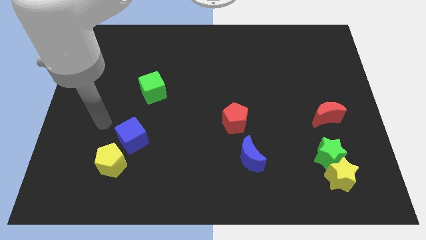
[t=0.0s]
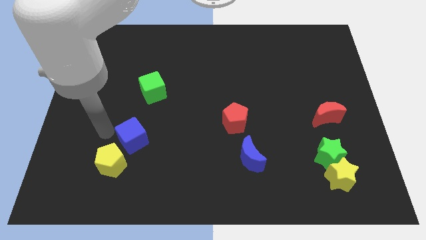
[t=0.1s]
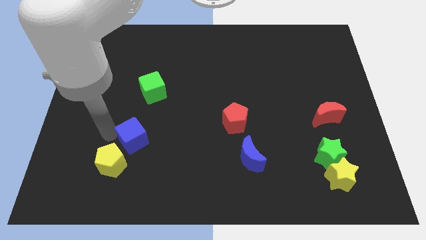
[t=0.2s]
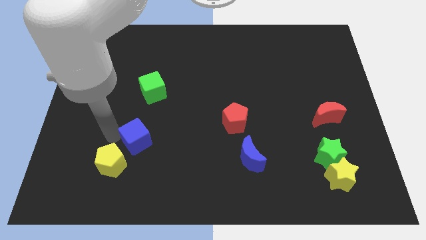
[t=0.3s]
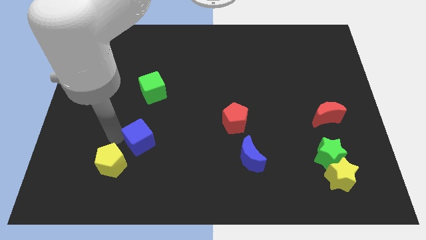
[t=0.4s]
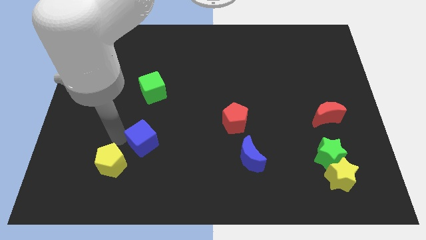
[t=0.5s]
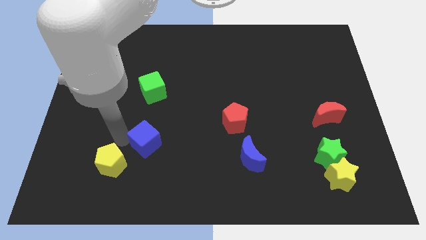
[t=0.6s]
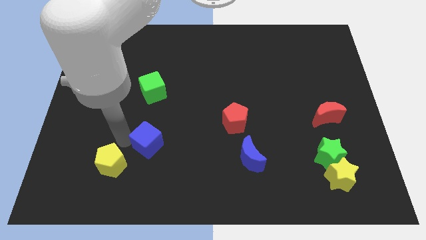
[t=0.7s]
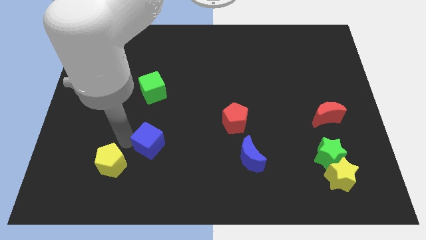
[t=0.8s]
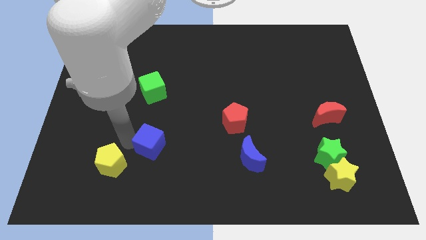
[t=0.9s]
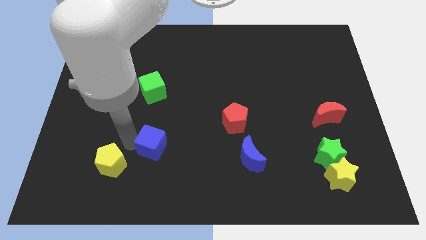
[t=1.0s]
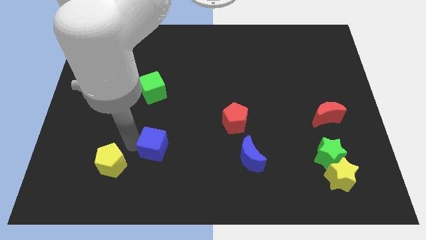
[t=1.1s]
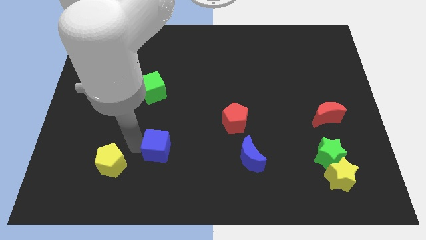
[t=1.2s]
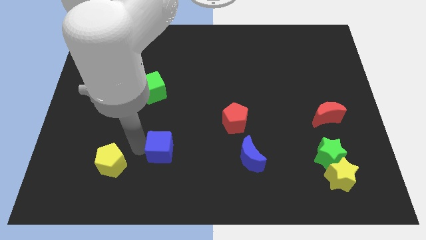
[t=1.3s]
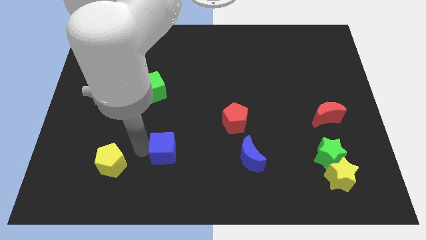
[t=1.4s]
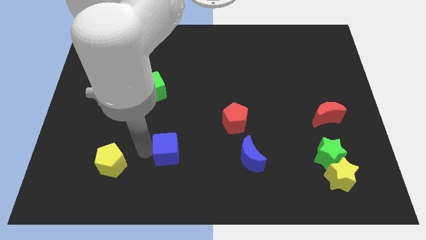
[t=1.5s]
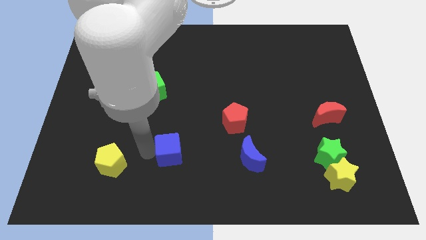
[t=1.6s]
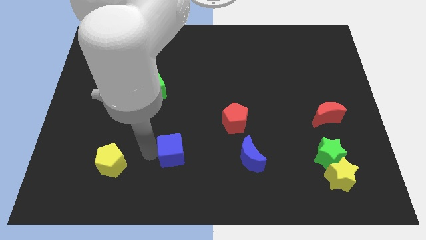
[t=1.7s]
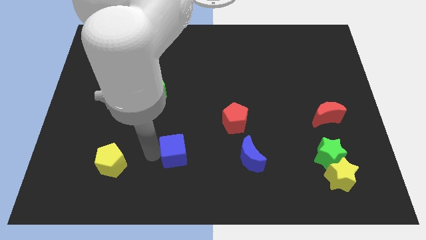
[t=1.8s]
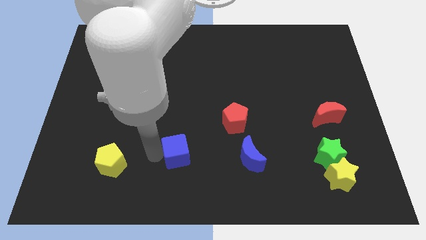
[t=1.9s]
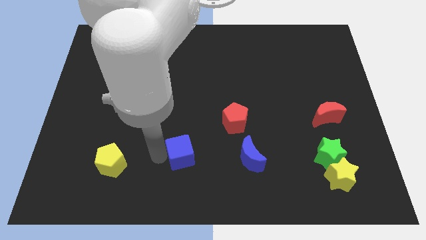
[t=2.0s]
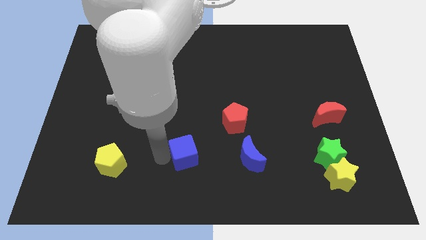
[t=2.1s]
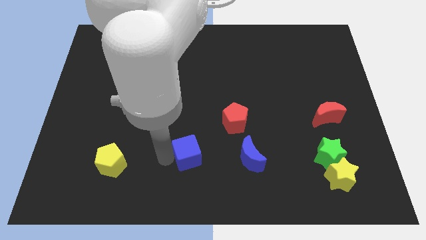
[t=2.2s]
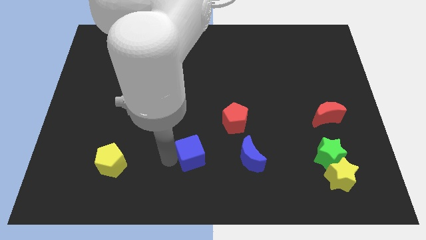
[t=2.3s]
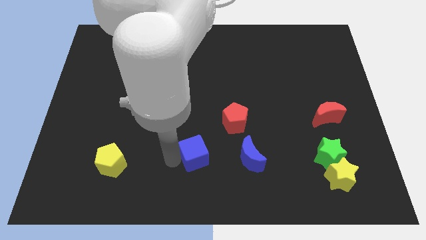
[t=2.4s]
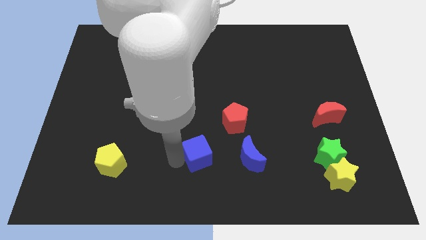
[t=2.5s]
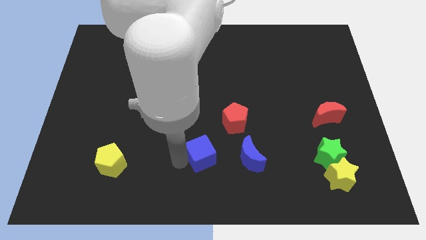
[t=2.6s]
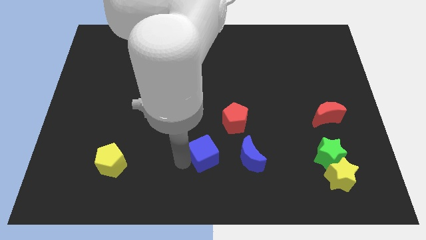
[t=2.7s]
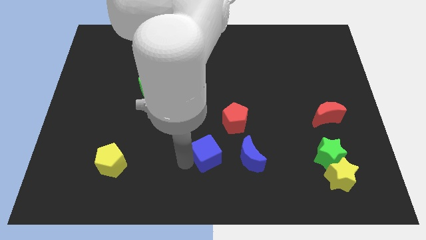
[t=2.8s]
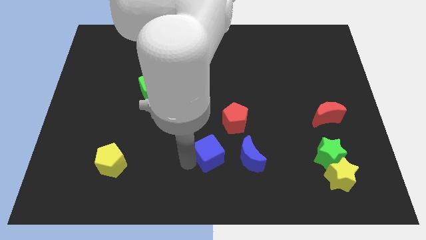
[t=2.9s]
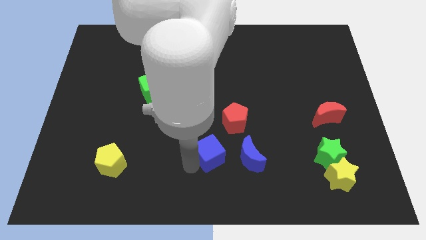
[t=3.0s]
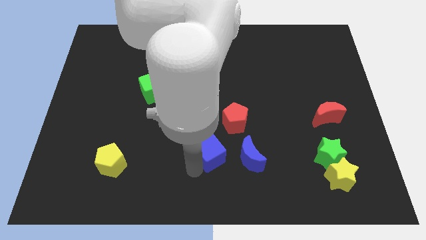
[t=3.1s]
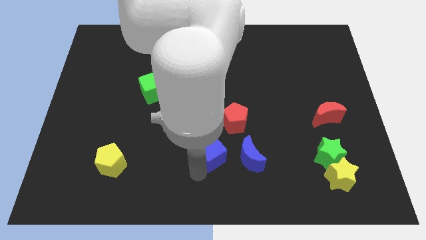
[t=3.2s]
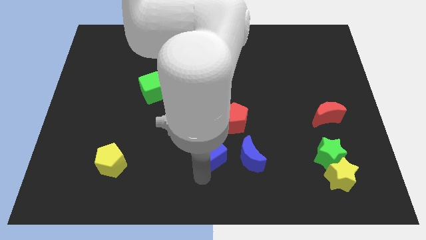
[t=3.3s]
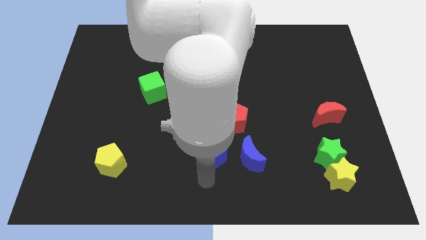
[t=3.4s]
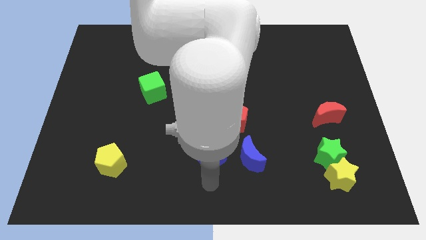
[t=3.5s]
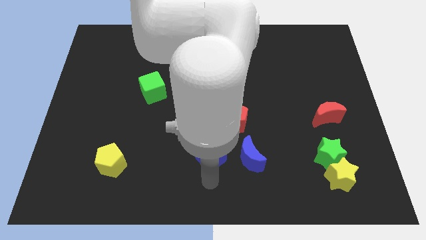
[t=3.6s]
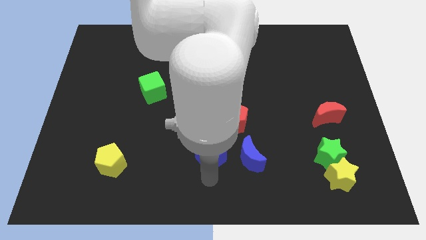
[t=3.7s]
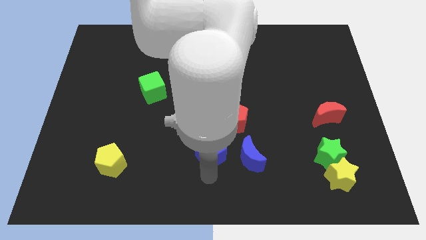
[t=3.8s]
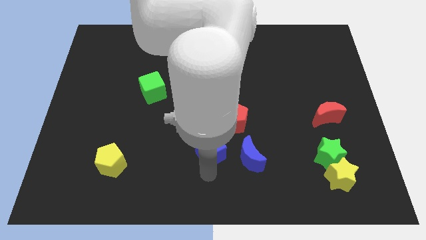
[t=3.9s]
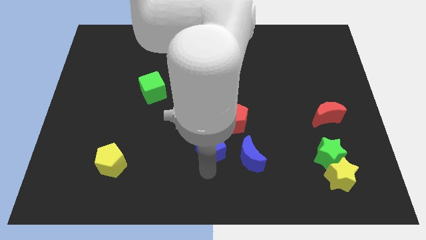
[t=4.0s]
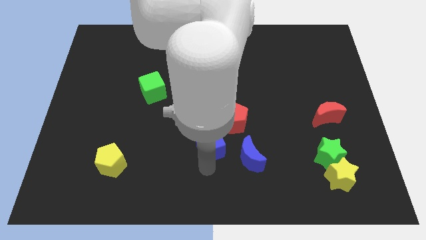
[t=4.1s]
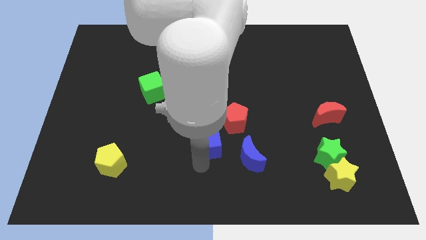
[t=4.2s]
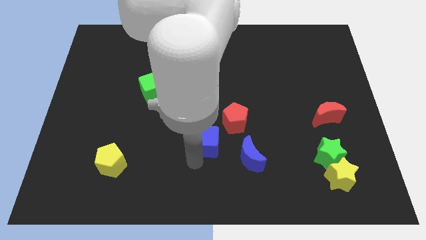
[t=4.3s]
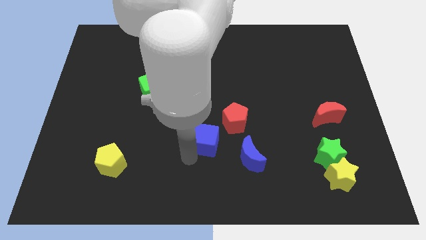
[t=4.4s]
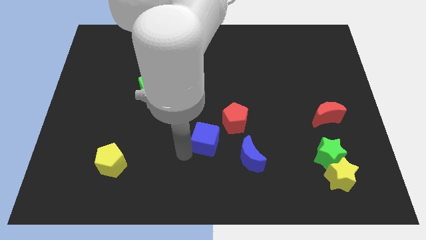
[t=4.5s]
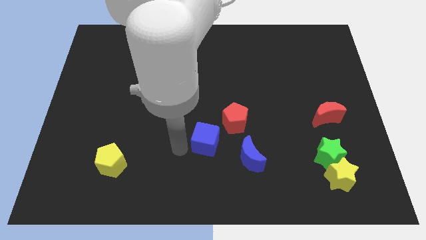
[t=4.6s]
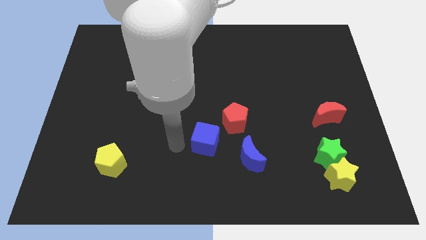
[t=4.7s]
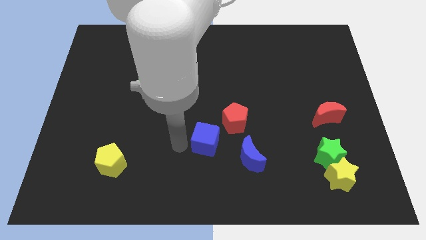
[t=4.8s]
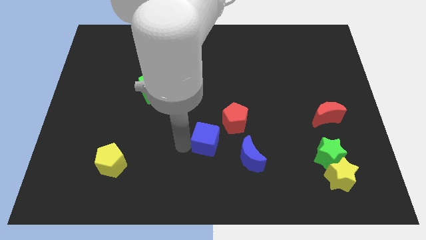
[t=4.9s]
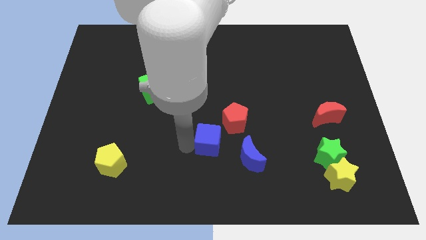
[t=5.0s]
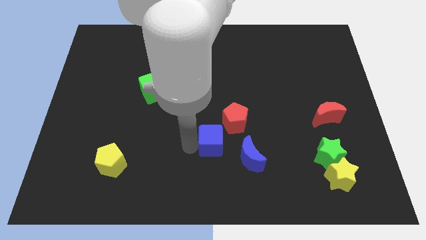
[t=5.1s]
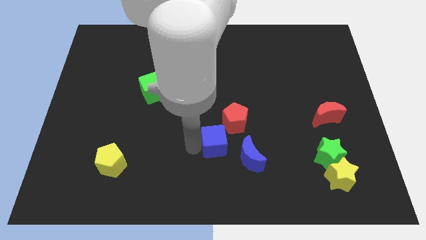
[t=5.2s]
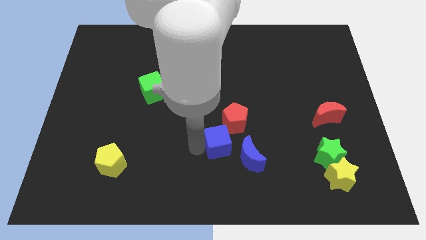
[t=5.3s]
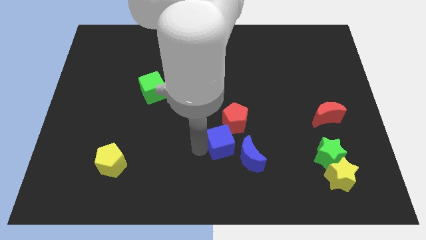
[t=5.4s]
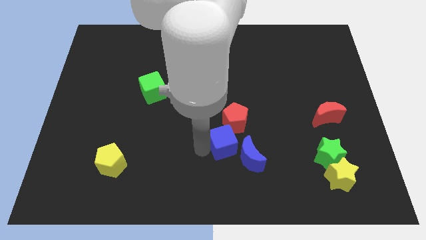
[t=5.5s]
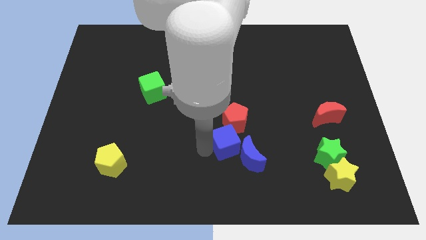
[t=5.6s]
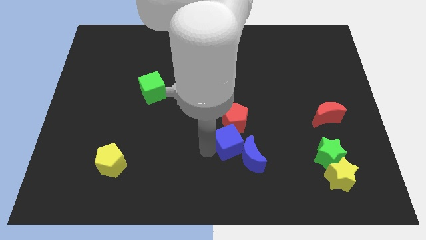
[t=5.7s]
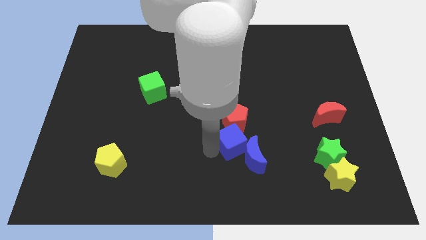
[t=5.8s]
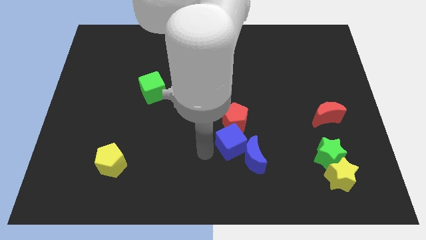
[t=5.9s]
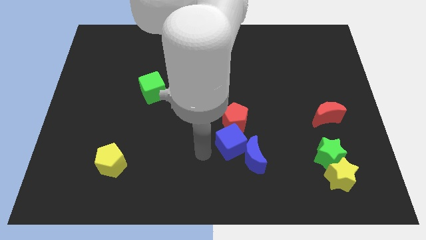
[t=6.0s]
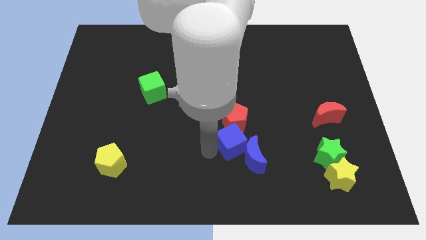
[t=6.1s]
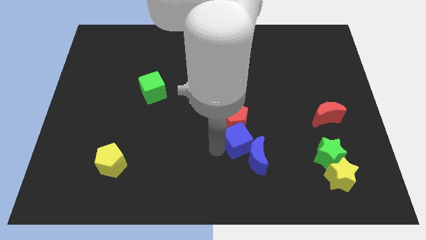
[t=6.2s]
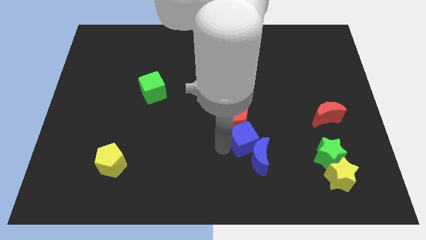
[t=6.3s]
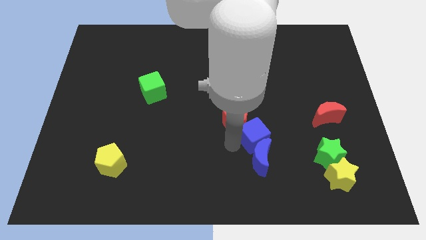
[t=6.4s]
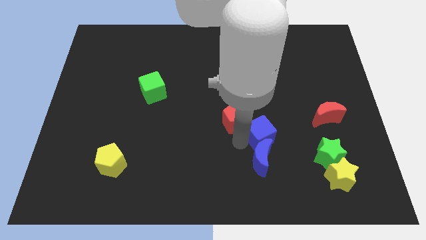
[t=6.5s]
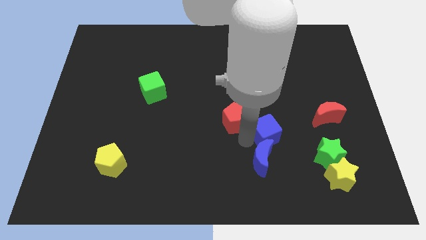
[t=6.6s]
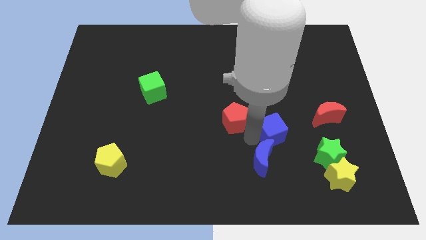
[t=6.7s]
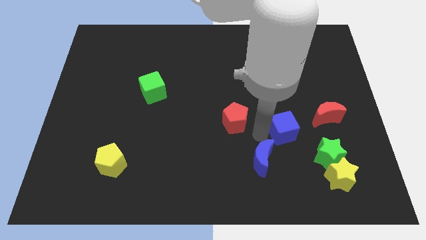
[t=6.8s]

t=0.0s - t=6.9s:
push the blue cube to the bottom left side of the red moon

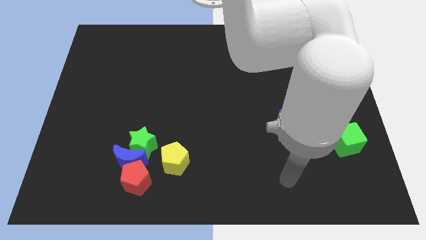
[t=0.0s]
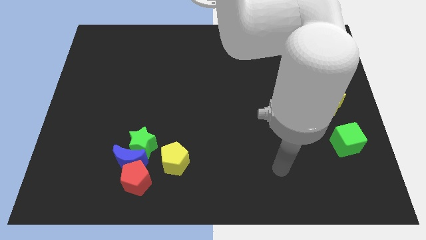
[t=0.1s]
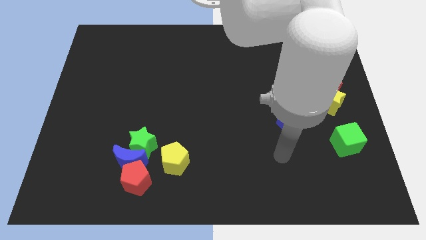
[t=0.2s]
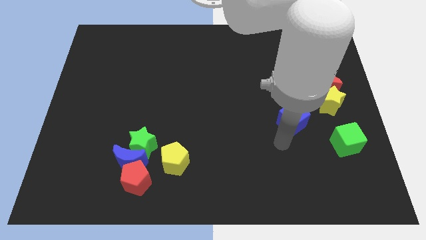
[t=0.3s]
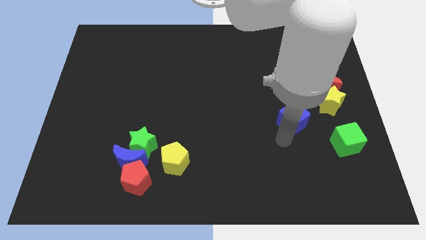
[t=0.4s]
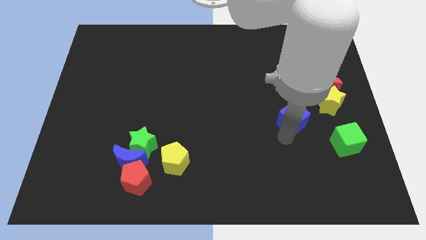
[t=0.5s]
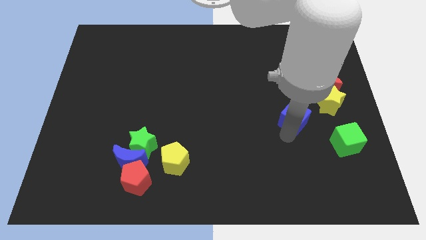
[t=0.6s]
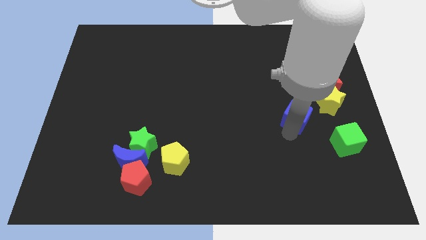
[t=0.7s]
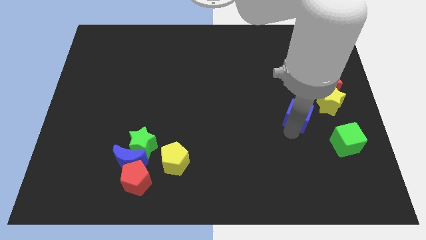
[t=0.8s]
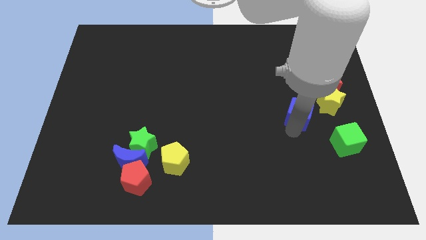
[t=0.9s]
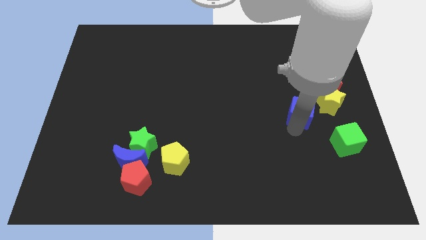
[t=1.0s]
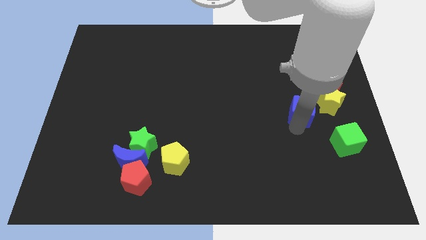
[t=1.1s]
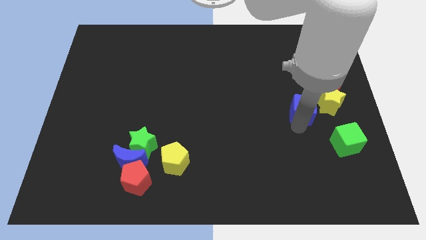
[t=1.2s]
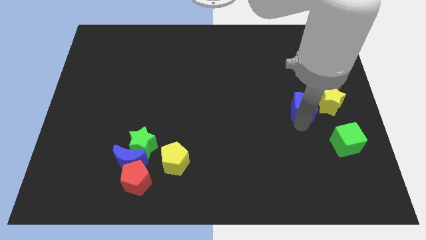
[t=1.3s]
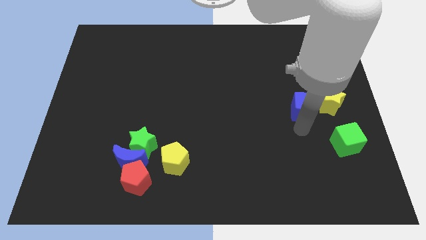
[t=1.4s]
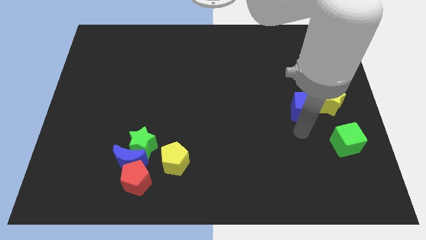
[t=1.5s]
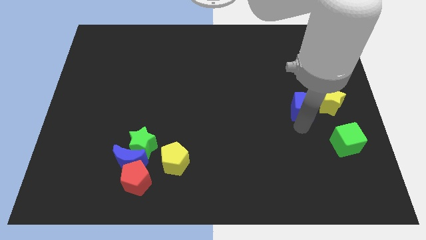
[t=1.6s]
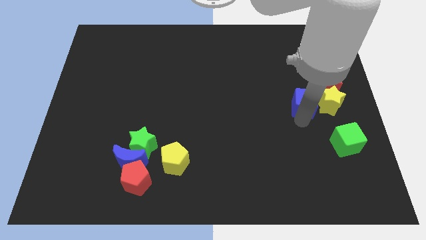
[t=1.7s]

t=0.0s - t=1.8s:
slide the blue cube to the top left side of the yellow star
